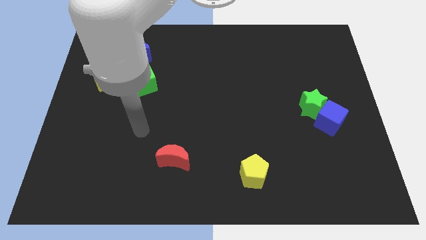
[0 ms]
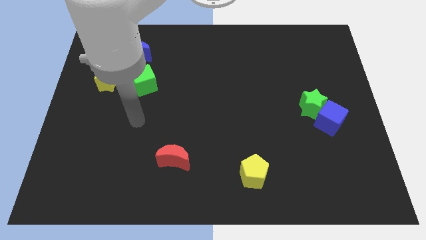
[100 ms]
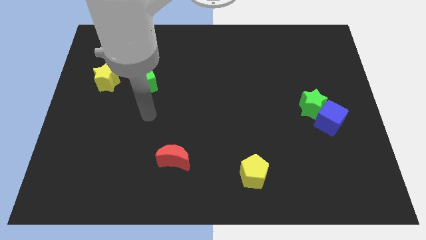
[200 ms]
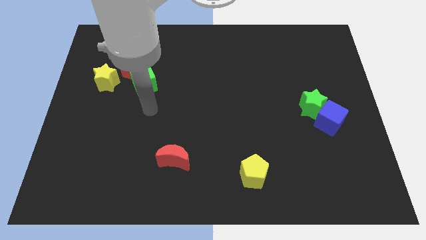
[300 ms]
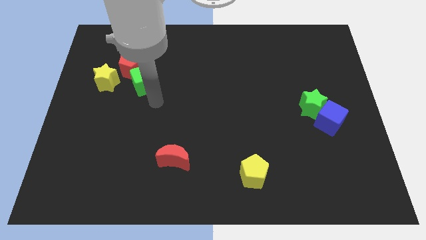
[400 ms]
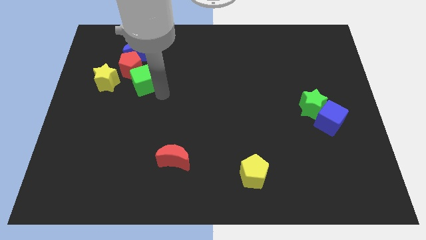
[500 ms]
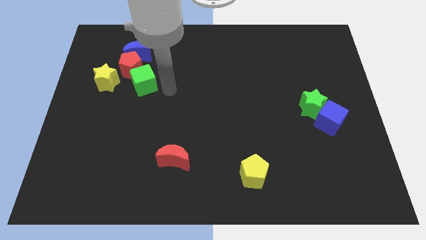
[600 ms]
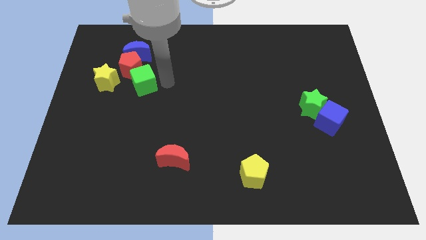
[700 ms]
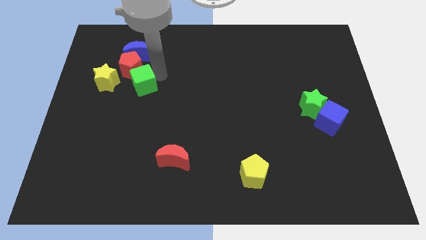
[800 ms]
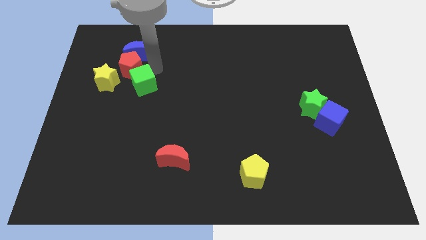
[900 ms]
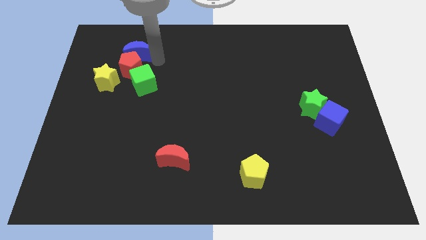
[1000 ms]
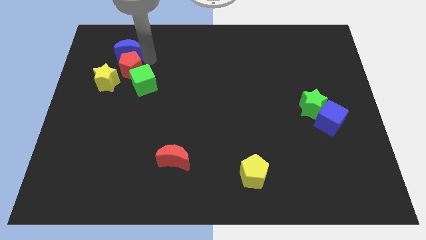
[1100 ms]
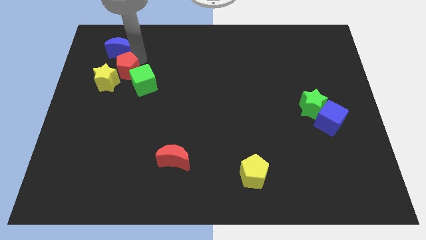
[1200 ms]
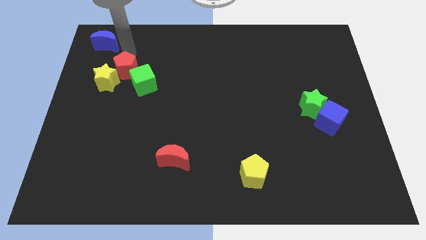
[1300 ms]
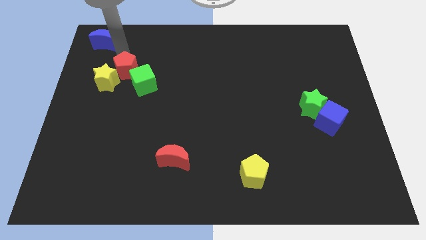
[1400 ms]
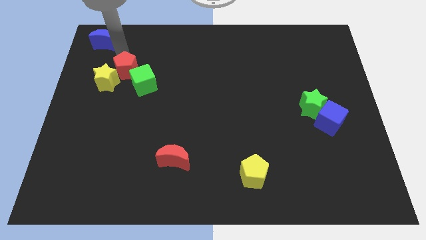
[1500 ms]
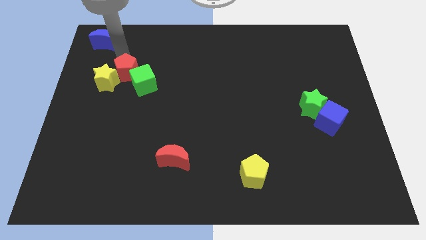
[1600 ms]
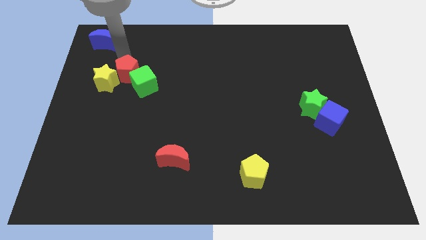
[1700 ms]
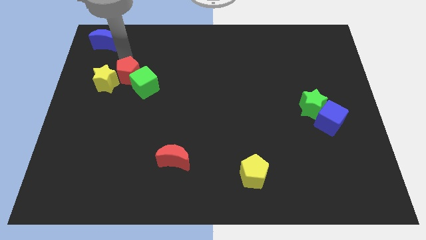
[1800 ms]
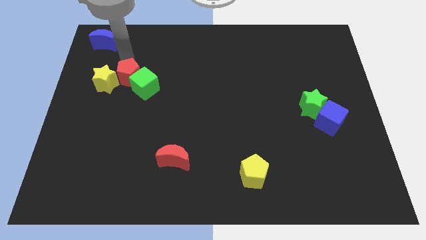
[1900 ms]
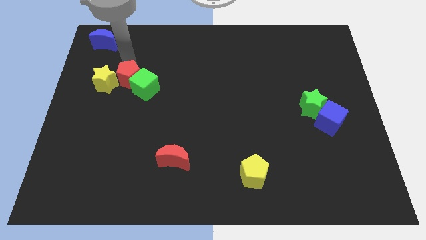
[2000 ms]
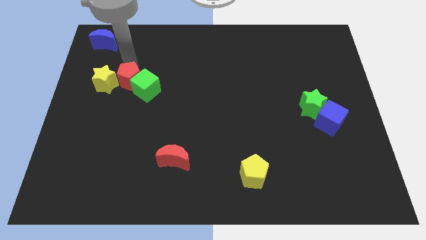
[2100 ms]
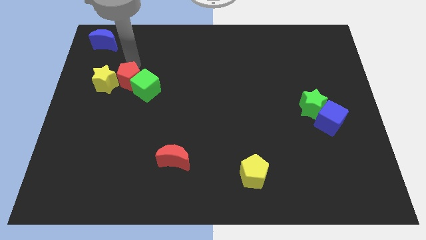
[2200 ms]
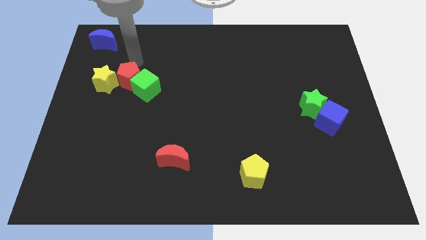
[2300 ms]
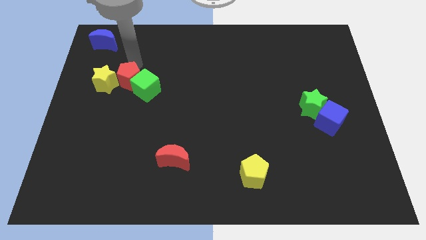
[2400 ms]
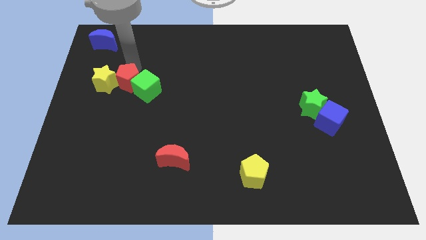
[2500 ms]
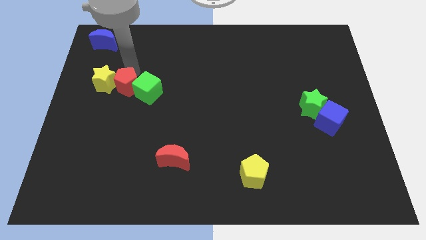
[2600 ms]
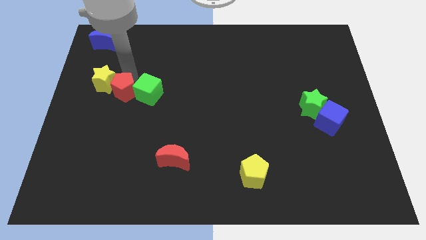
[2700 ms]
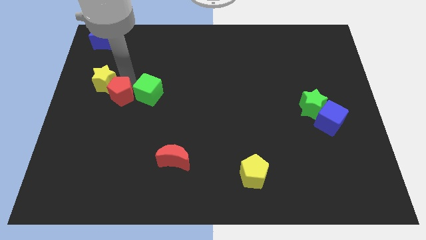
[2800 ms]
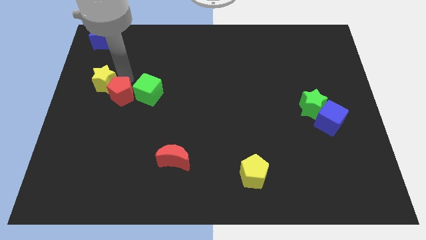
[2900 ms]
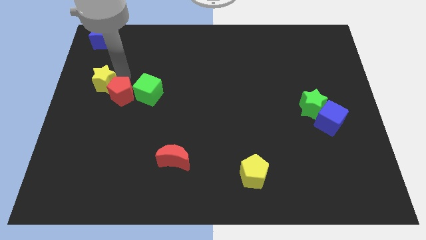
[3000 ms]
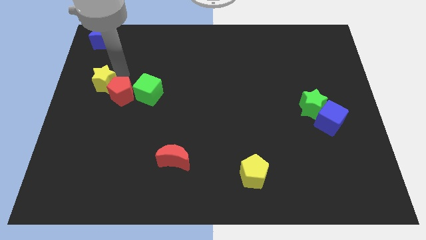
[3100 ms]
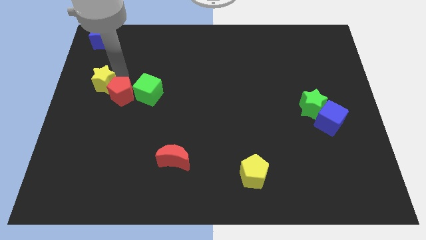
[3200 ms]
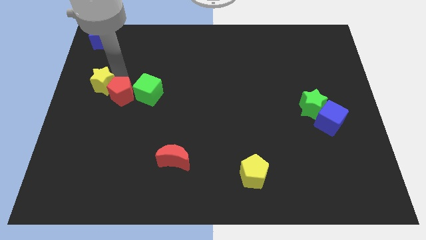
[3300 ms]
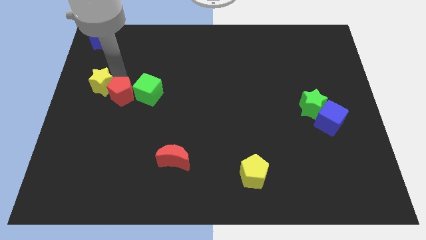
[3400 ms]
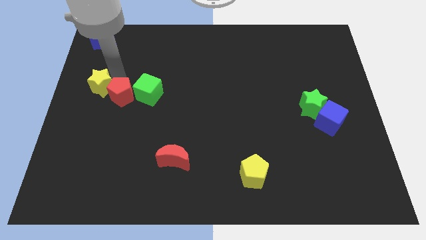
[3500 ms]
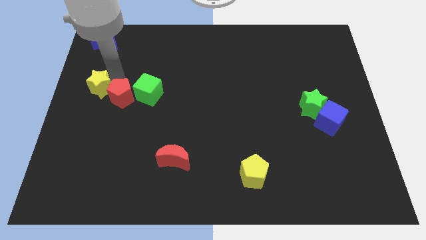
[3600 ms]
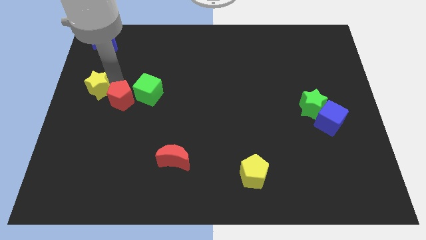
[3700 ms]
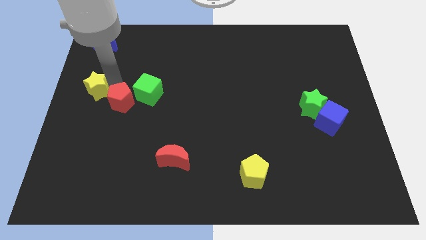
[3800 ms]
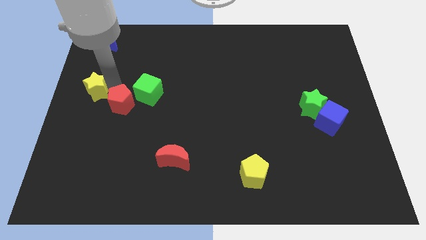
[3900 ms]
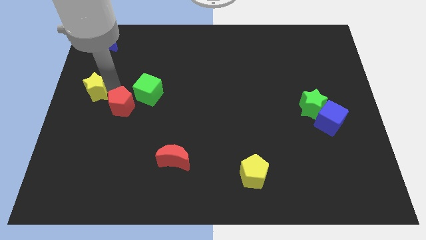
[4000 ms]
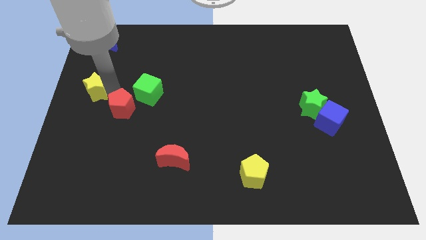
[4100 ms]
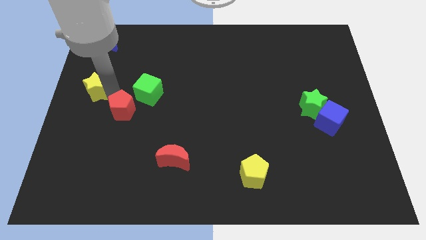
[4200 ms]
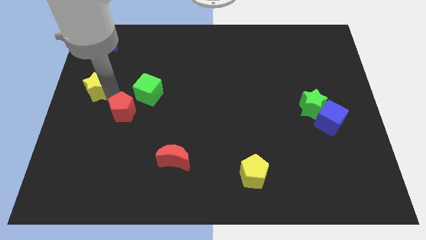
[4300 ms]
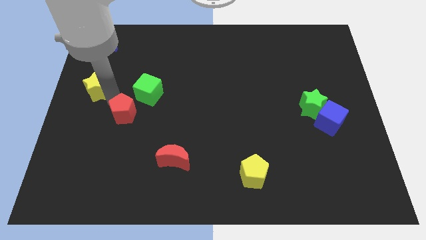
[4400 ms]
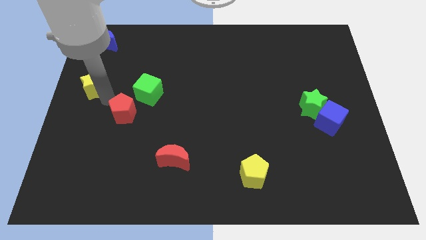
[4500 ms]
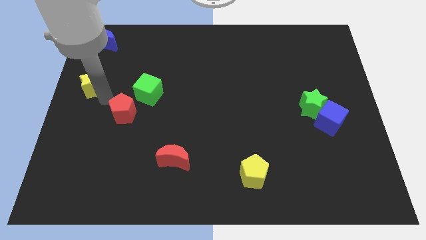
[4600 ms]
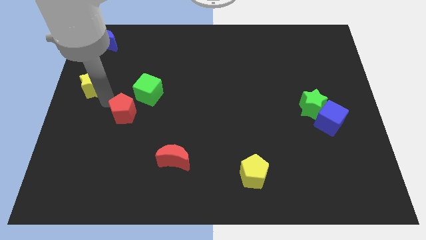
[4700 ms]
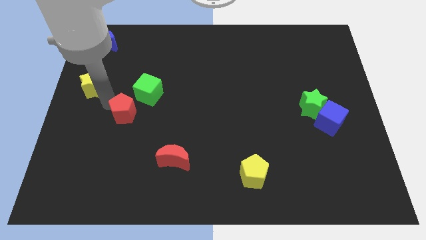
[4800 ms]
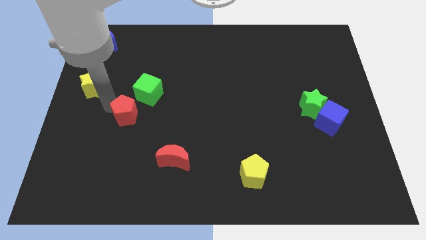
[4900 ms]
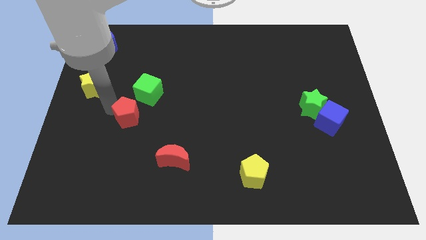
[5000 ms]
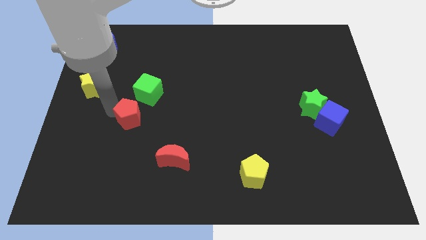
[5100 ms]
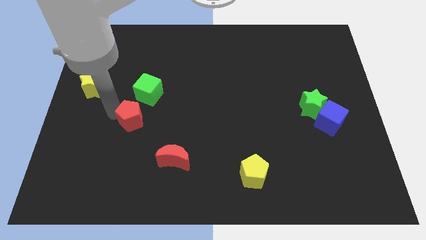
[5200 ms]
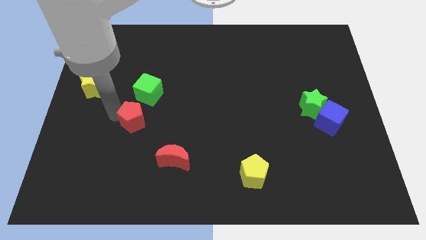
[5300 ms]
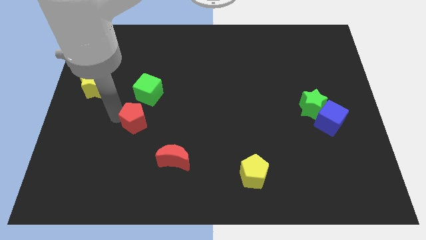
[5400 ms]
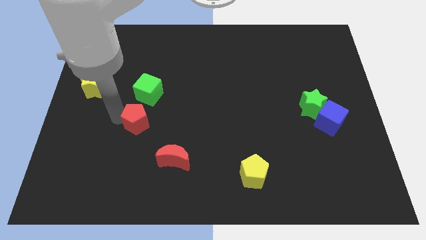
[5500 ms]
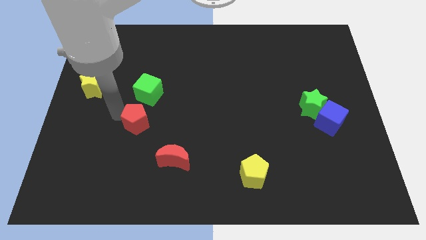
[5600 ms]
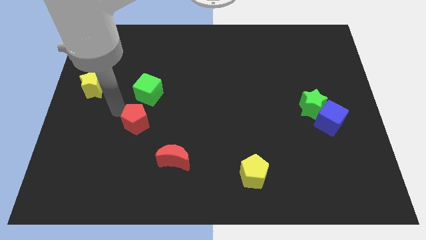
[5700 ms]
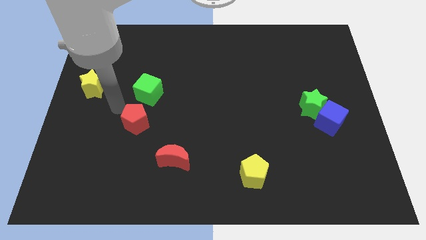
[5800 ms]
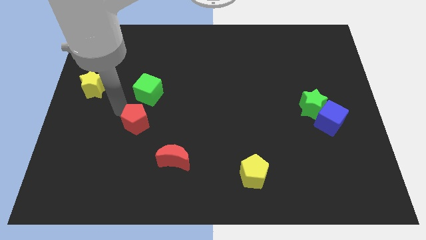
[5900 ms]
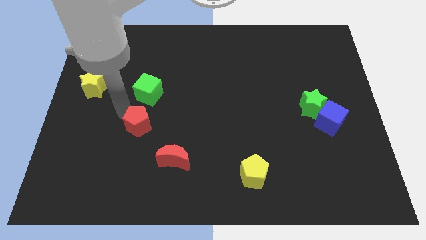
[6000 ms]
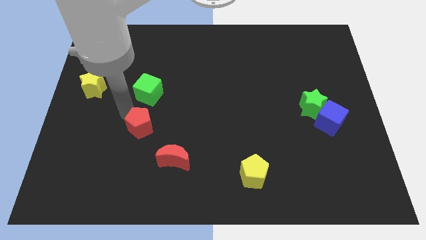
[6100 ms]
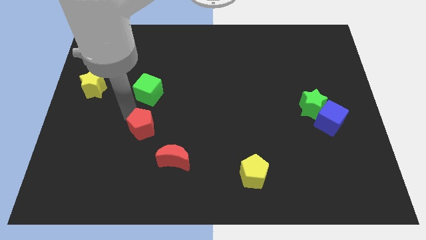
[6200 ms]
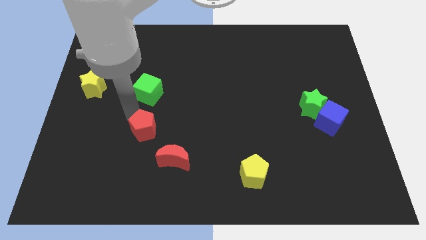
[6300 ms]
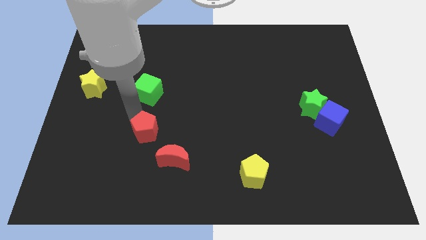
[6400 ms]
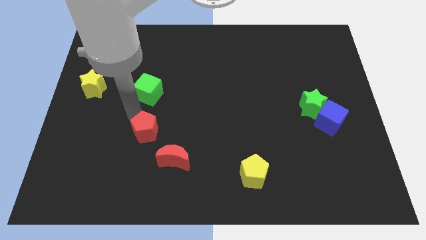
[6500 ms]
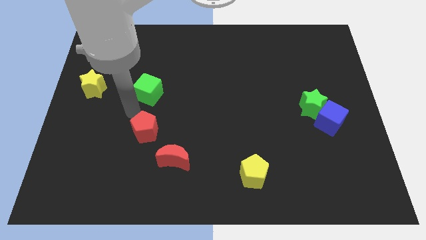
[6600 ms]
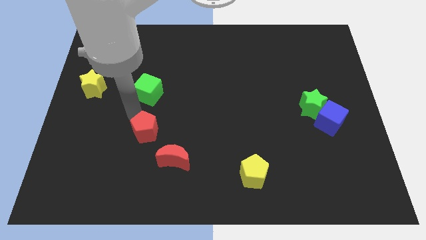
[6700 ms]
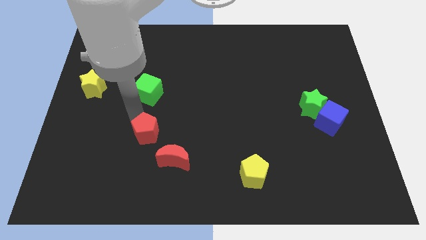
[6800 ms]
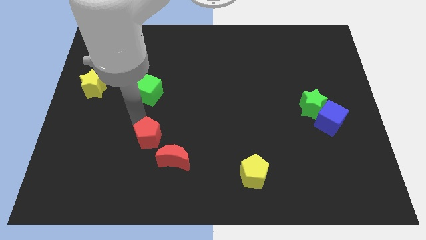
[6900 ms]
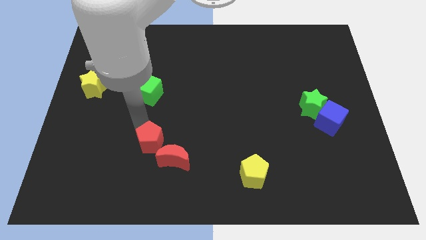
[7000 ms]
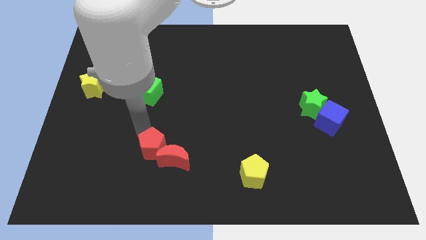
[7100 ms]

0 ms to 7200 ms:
push the red pentagon towards the red moon
